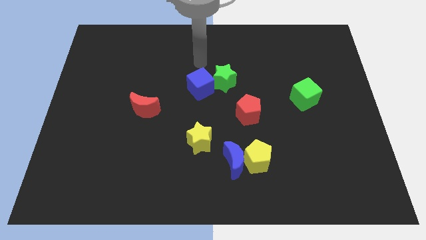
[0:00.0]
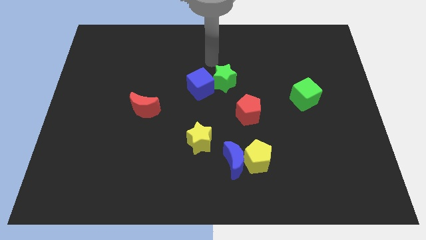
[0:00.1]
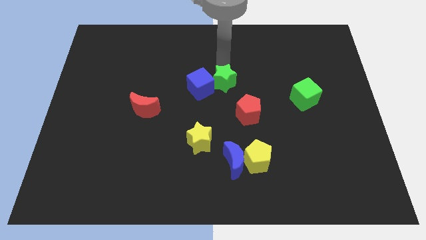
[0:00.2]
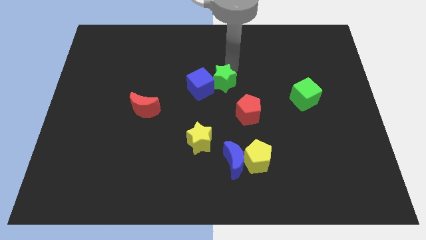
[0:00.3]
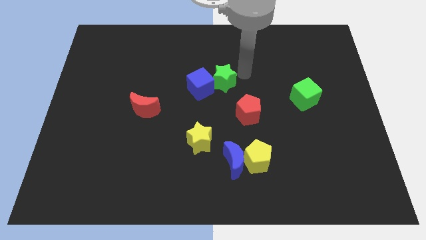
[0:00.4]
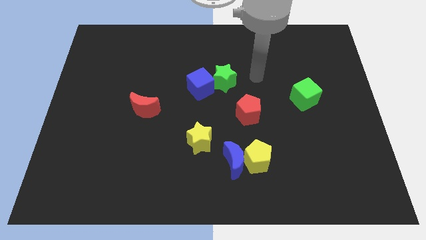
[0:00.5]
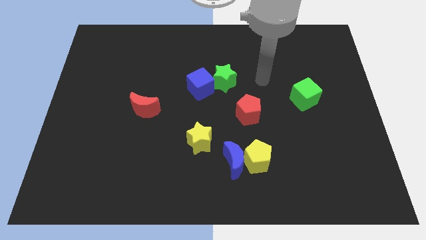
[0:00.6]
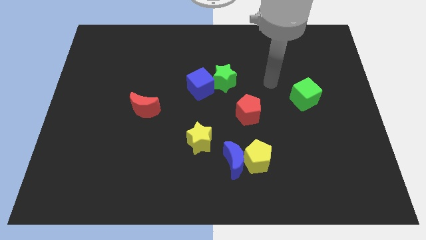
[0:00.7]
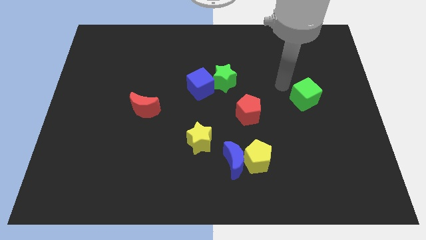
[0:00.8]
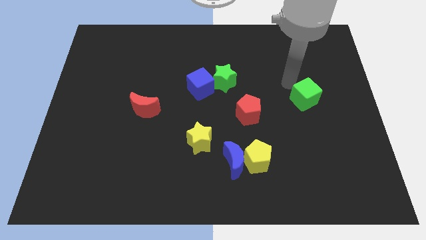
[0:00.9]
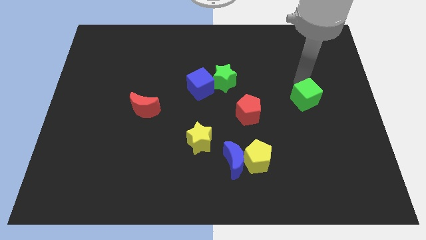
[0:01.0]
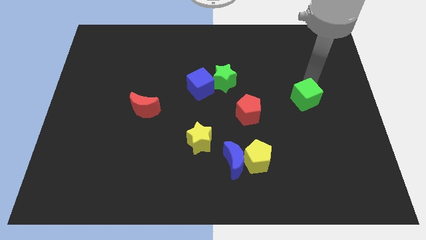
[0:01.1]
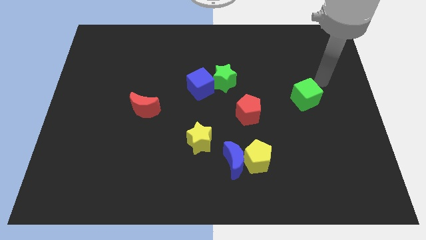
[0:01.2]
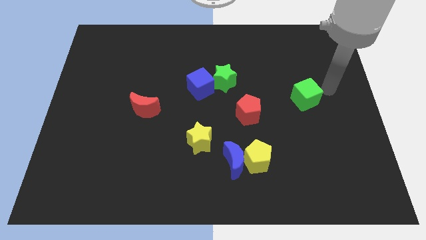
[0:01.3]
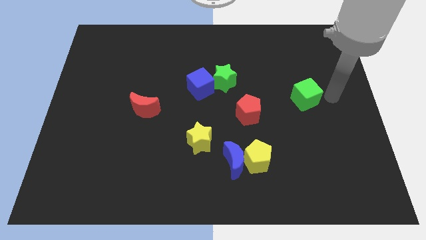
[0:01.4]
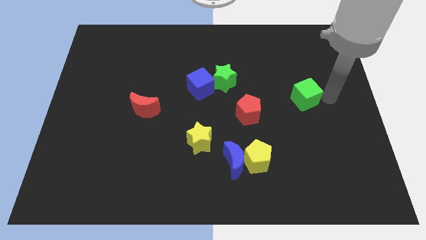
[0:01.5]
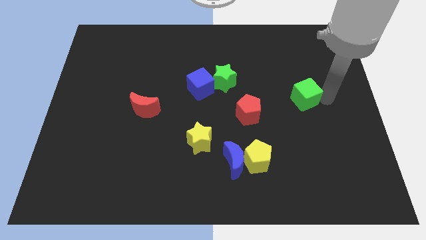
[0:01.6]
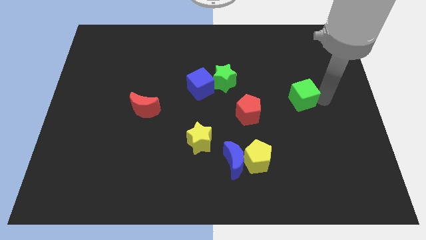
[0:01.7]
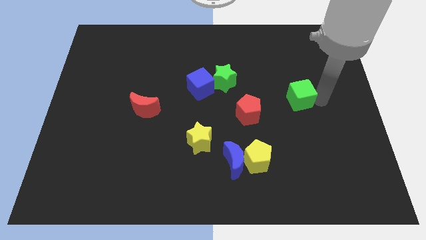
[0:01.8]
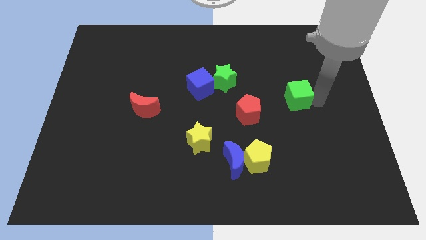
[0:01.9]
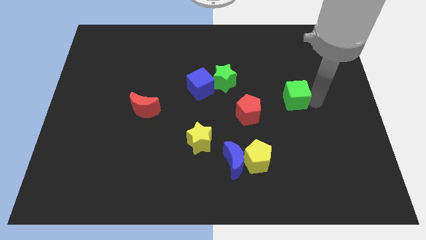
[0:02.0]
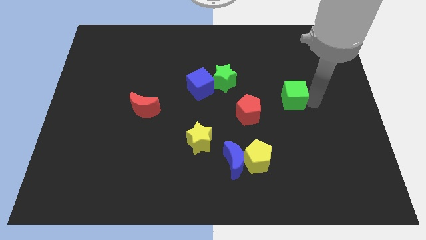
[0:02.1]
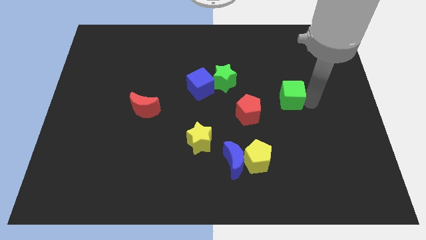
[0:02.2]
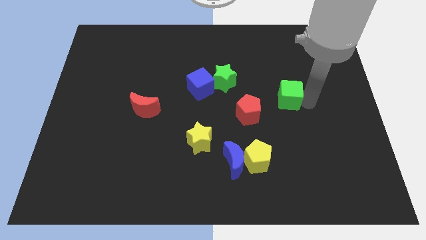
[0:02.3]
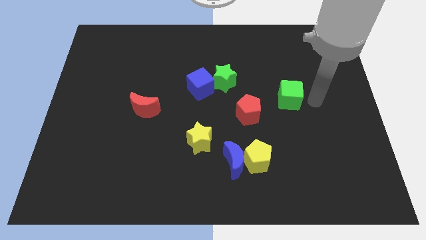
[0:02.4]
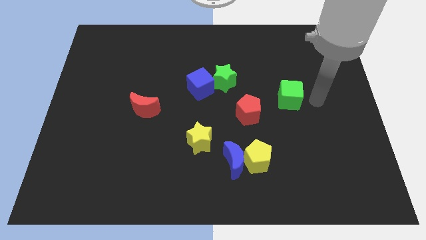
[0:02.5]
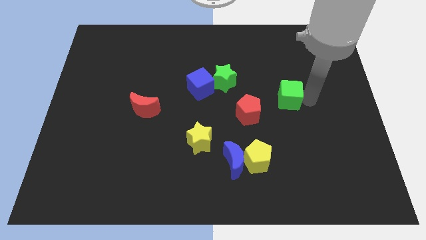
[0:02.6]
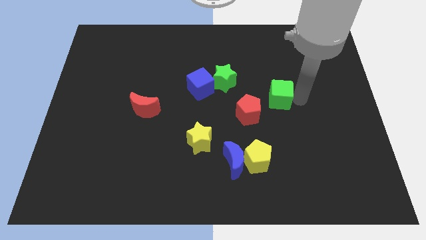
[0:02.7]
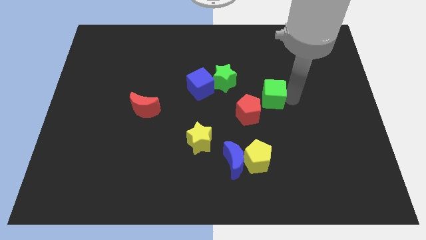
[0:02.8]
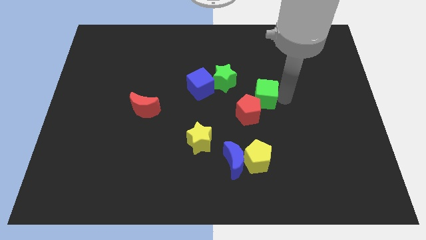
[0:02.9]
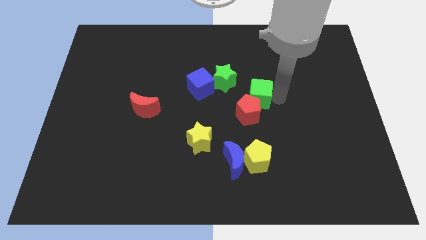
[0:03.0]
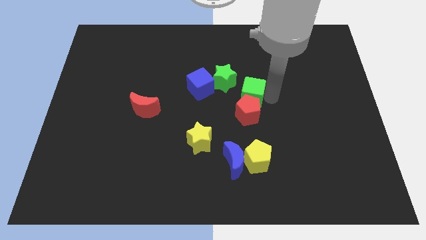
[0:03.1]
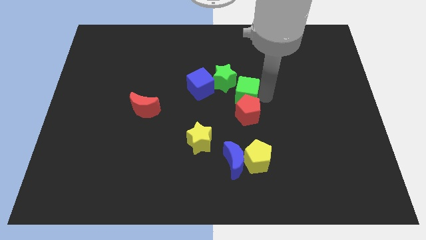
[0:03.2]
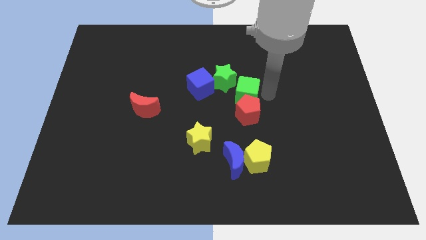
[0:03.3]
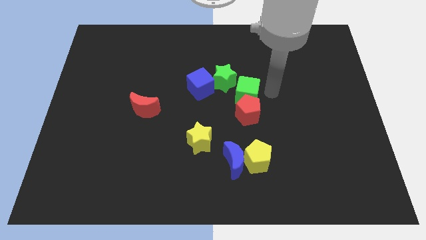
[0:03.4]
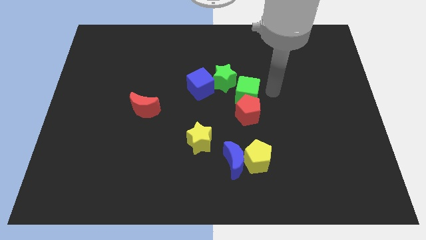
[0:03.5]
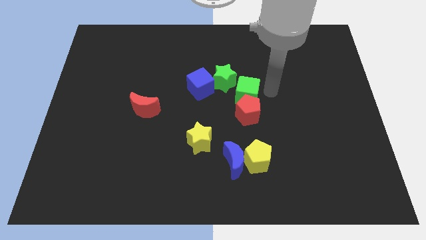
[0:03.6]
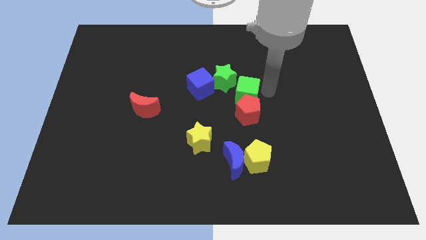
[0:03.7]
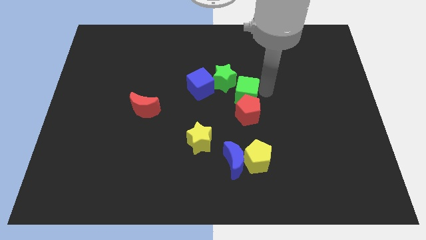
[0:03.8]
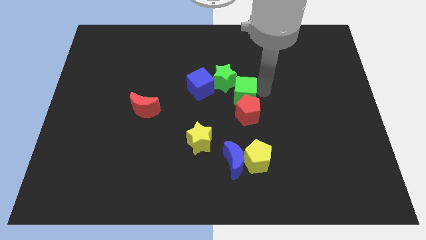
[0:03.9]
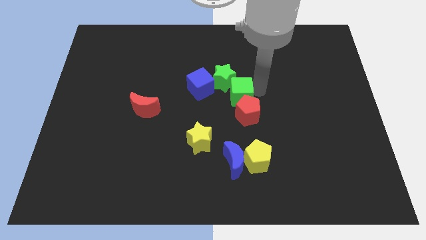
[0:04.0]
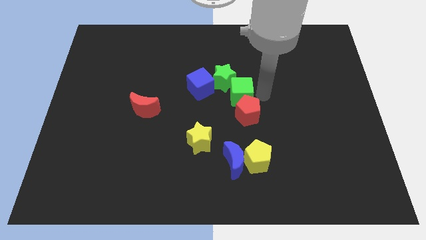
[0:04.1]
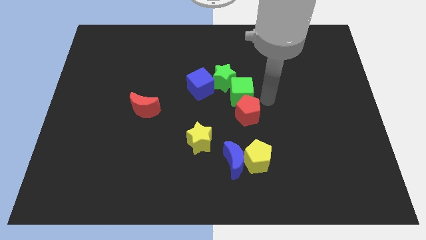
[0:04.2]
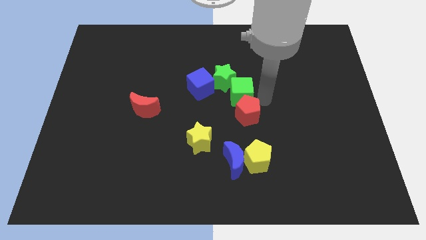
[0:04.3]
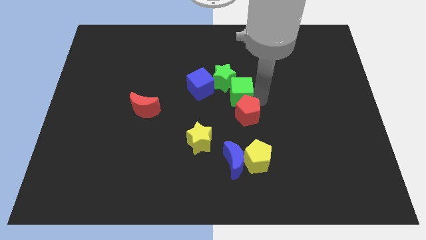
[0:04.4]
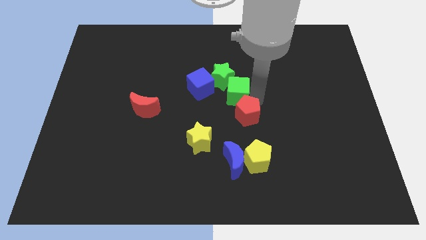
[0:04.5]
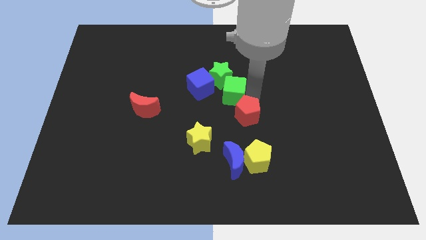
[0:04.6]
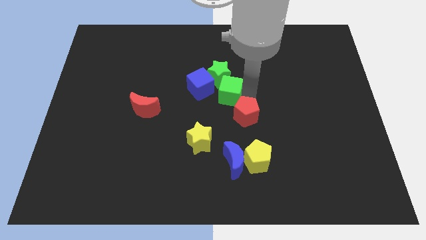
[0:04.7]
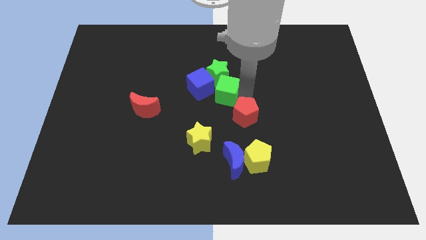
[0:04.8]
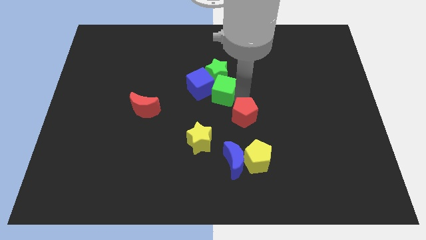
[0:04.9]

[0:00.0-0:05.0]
put the green cube next to the blue cube

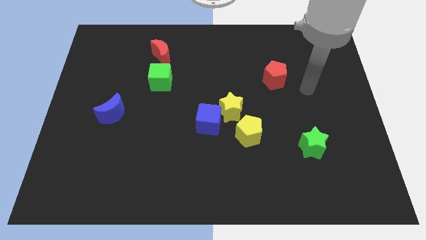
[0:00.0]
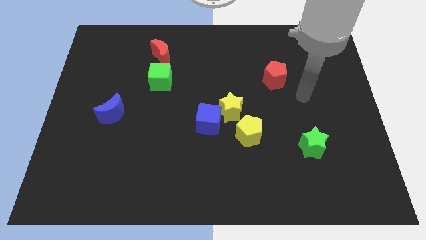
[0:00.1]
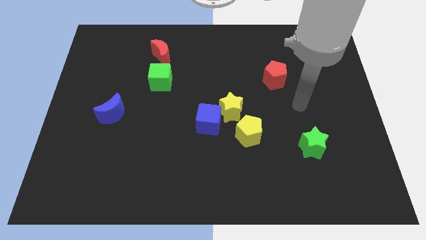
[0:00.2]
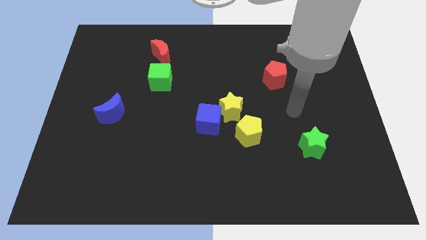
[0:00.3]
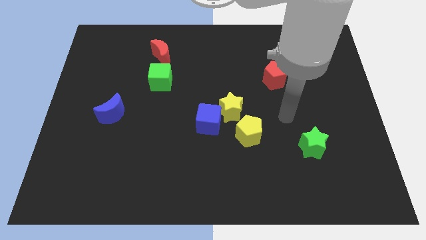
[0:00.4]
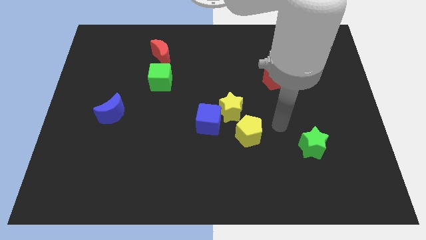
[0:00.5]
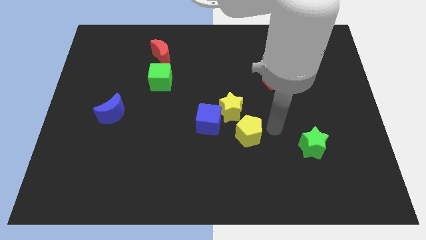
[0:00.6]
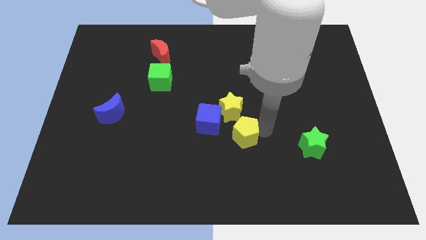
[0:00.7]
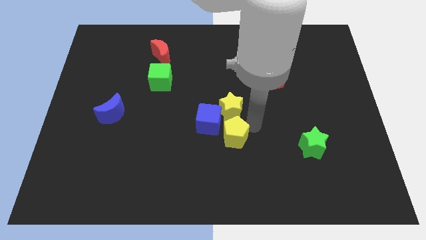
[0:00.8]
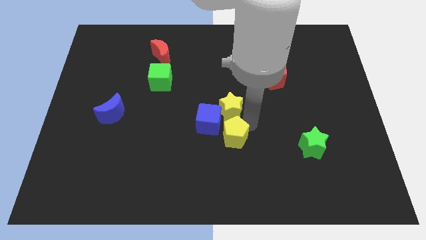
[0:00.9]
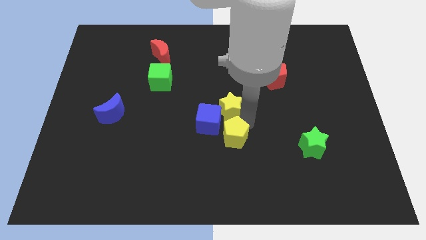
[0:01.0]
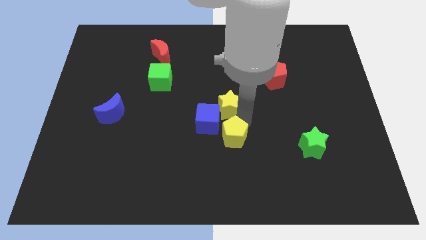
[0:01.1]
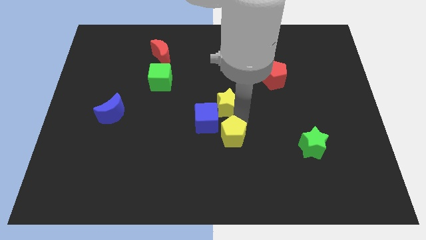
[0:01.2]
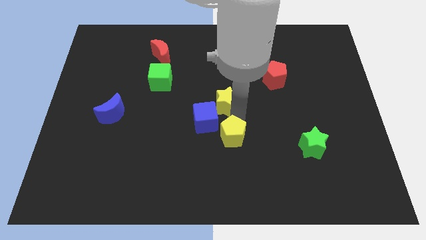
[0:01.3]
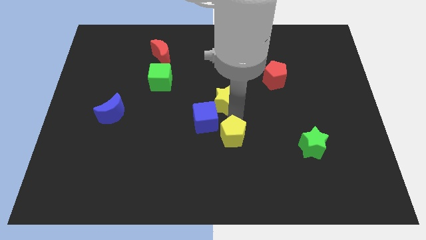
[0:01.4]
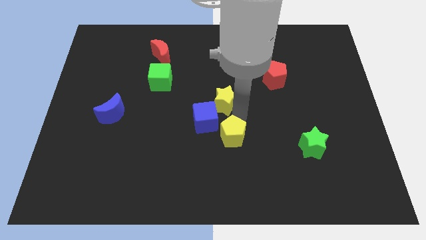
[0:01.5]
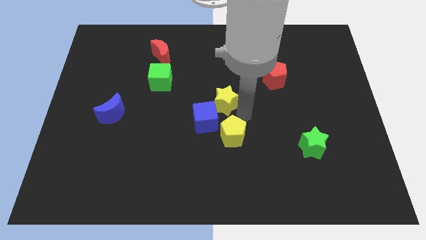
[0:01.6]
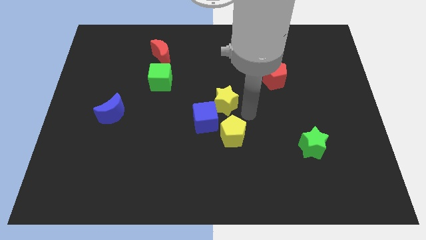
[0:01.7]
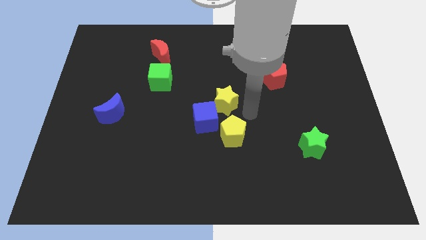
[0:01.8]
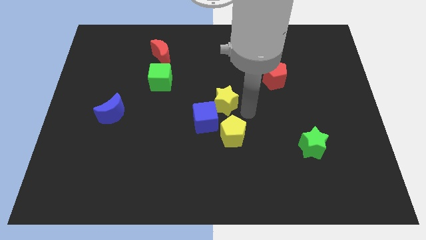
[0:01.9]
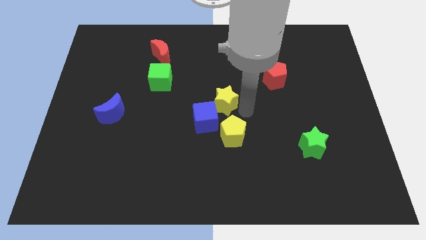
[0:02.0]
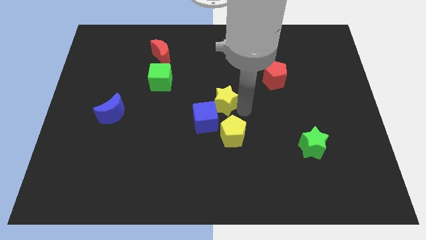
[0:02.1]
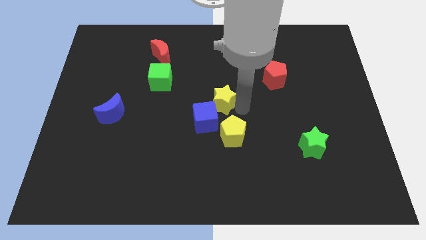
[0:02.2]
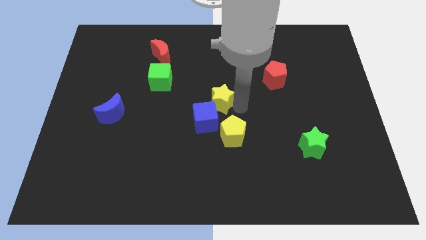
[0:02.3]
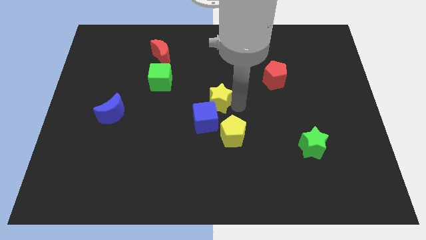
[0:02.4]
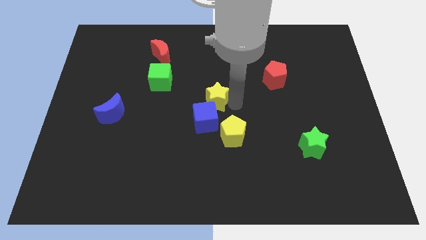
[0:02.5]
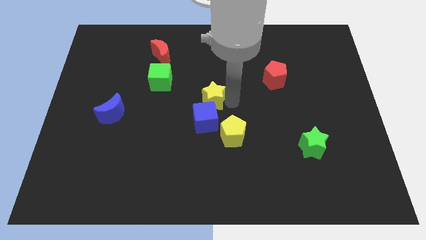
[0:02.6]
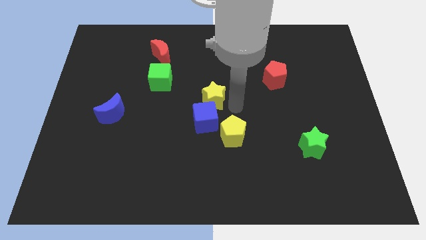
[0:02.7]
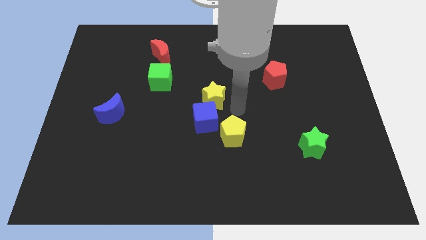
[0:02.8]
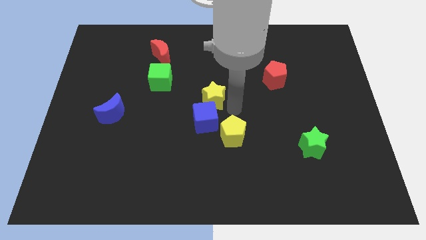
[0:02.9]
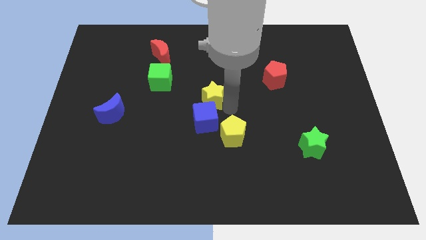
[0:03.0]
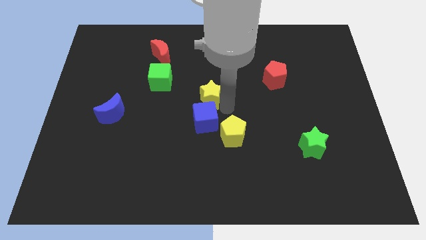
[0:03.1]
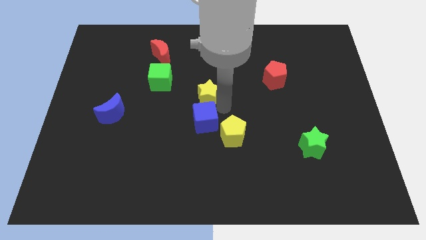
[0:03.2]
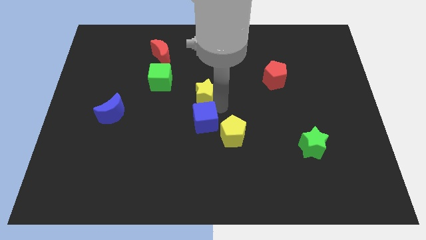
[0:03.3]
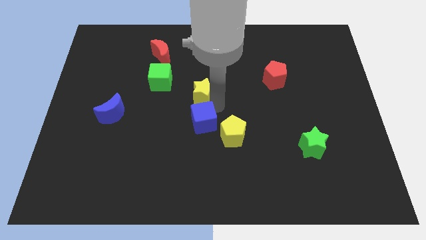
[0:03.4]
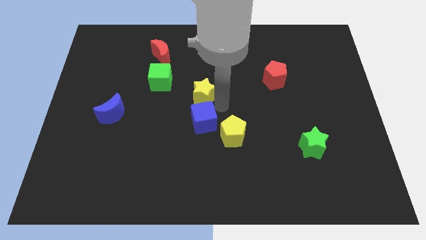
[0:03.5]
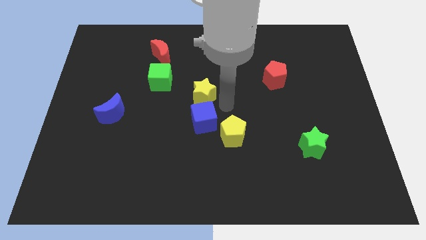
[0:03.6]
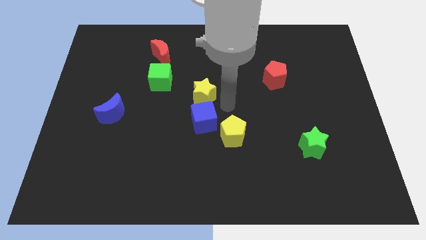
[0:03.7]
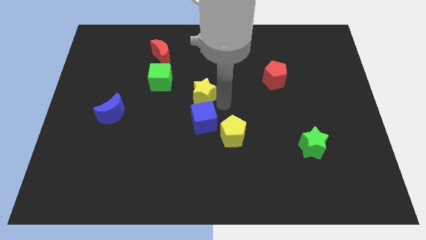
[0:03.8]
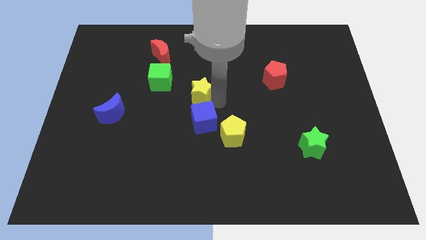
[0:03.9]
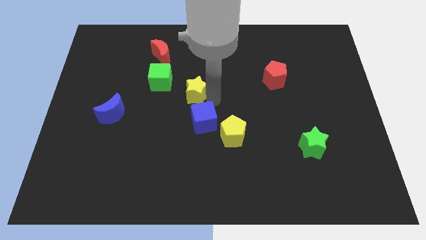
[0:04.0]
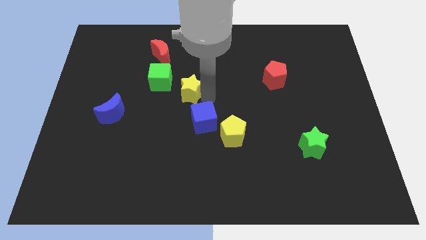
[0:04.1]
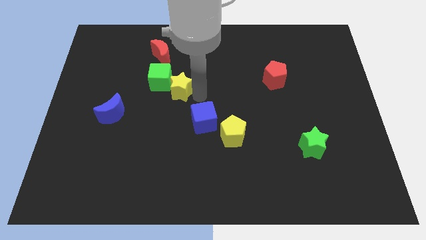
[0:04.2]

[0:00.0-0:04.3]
slide the yellow star towards the green cube
